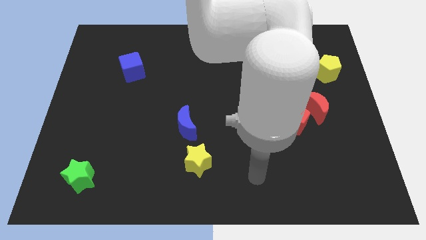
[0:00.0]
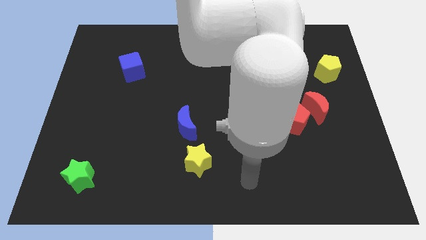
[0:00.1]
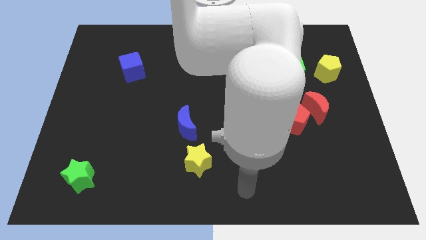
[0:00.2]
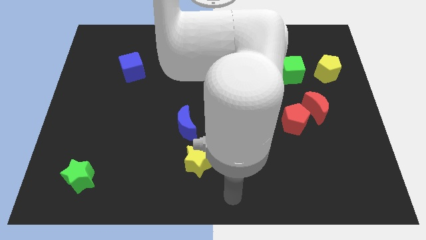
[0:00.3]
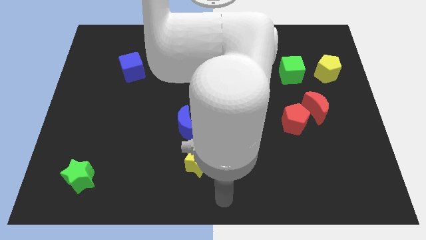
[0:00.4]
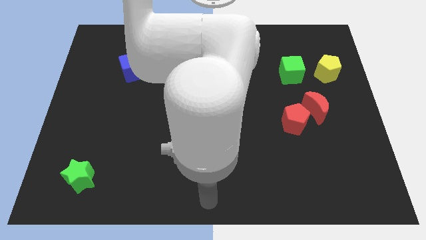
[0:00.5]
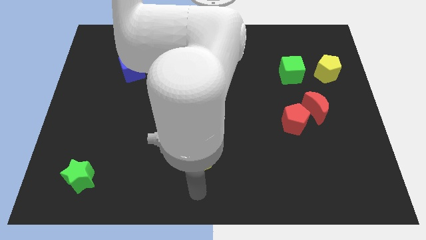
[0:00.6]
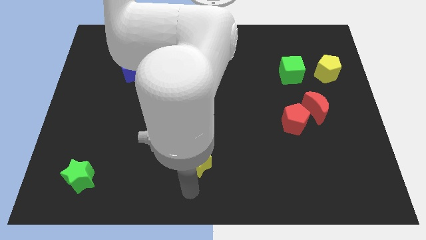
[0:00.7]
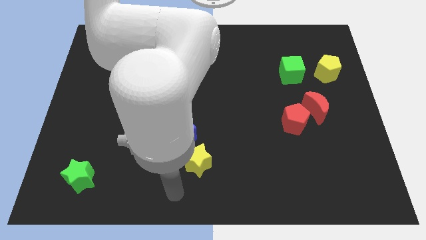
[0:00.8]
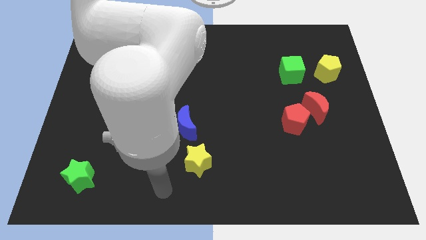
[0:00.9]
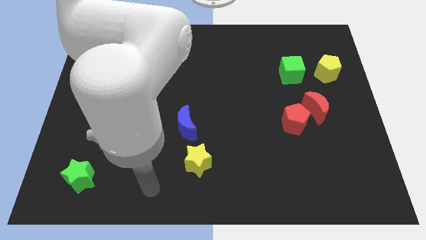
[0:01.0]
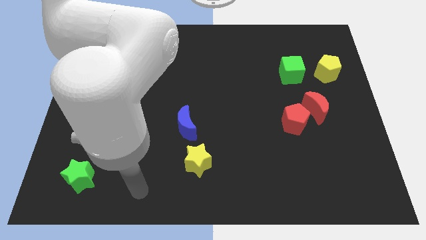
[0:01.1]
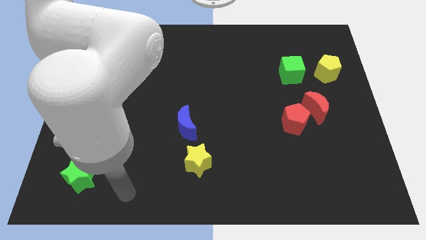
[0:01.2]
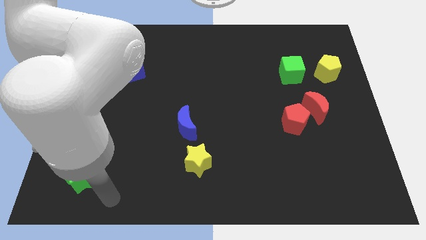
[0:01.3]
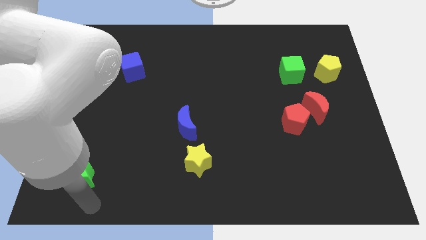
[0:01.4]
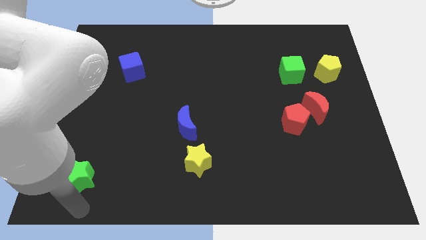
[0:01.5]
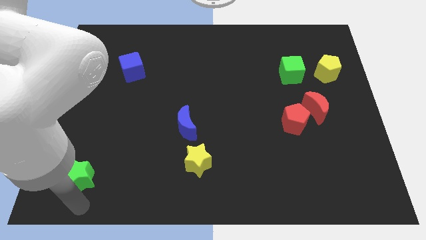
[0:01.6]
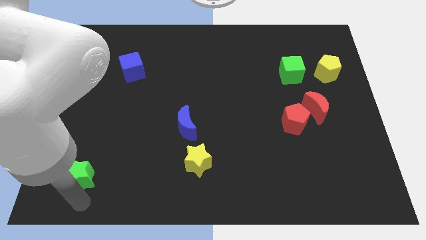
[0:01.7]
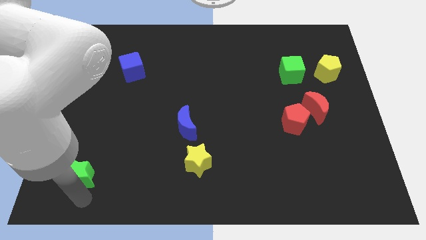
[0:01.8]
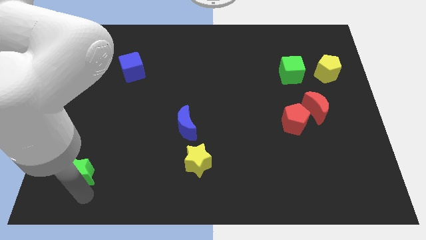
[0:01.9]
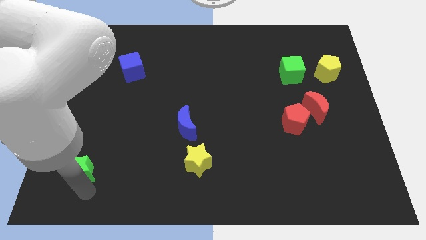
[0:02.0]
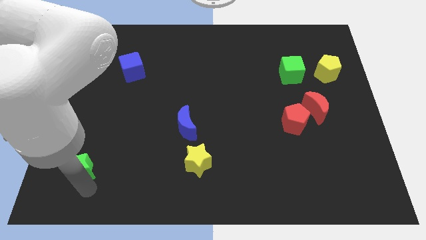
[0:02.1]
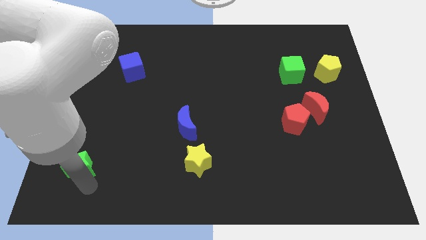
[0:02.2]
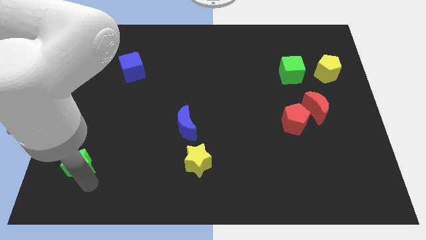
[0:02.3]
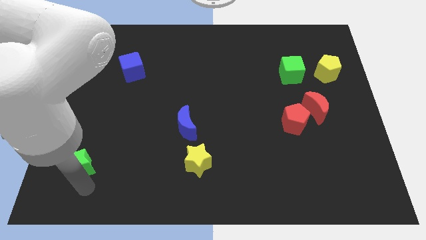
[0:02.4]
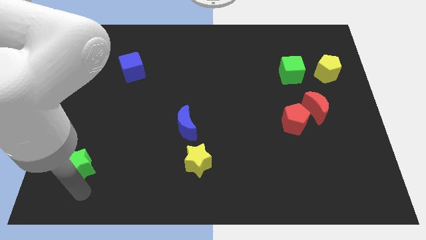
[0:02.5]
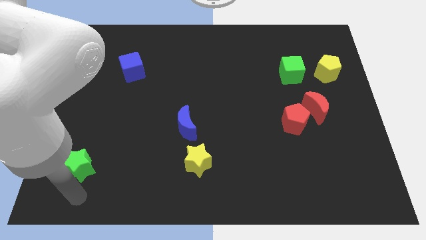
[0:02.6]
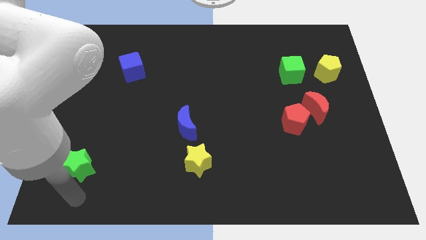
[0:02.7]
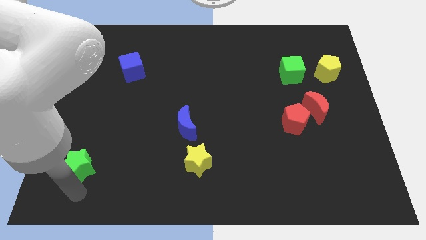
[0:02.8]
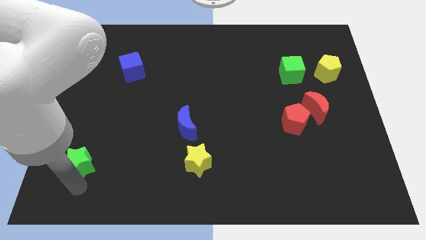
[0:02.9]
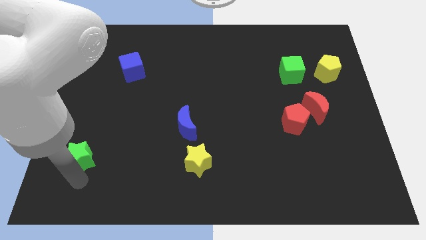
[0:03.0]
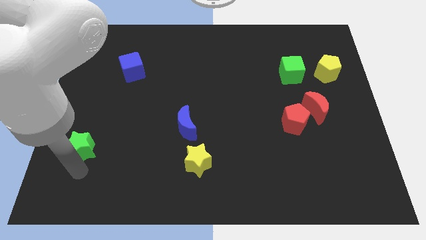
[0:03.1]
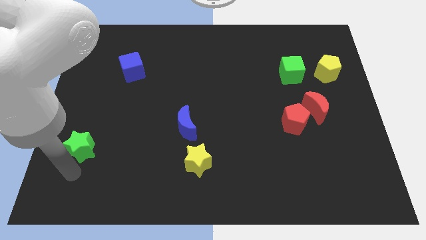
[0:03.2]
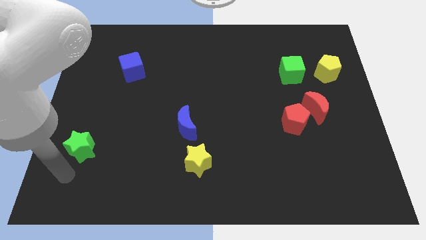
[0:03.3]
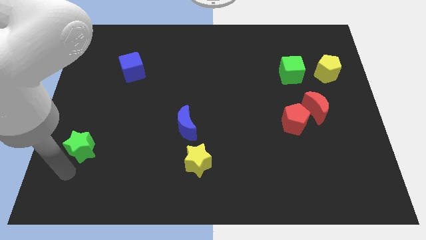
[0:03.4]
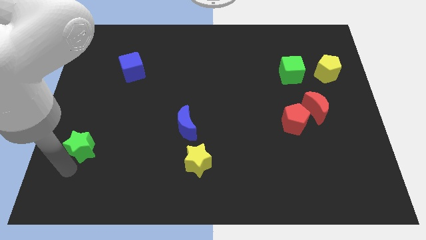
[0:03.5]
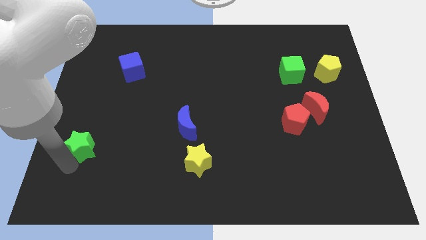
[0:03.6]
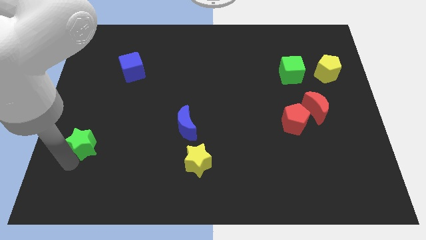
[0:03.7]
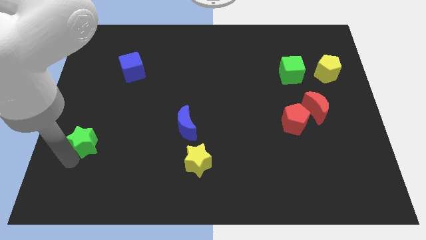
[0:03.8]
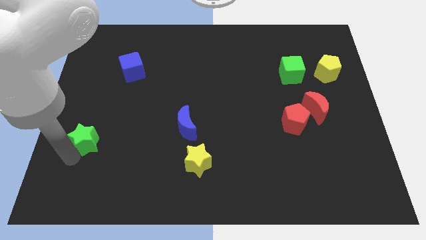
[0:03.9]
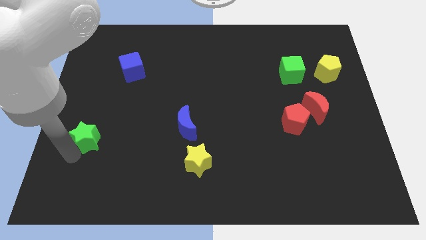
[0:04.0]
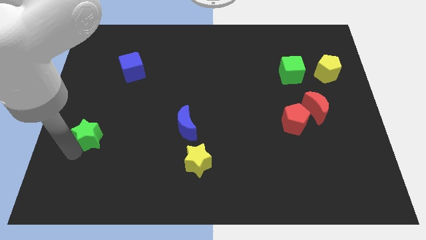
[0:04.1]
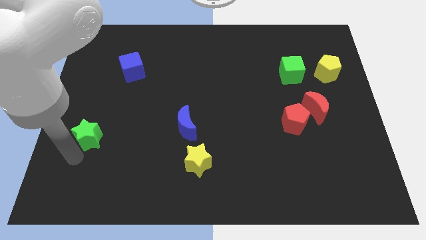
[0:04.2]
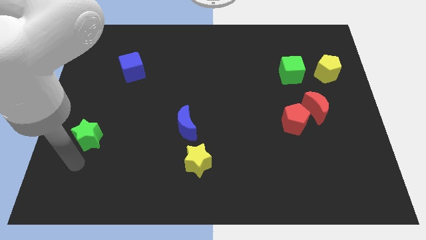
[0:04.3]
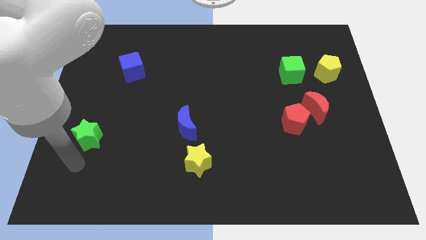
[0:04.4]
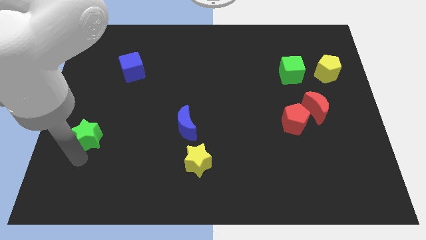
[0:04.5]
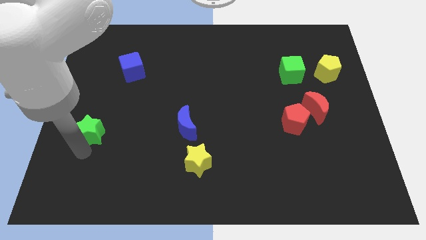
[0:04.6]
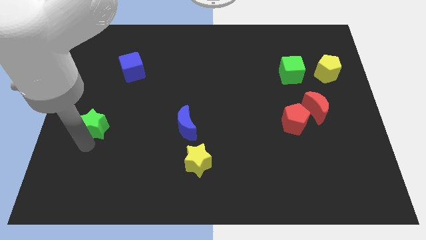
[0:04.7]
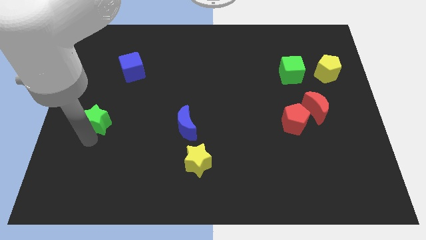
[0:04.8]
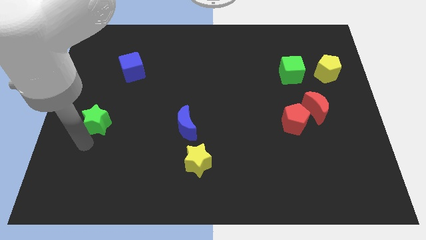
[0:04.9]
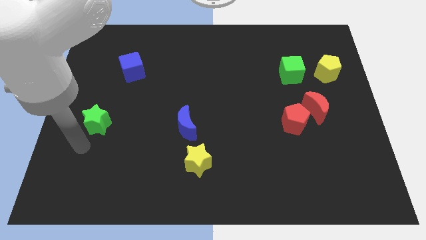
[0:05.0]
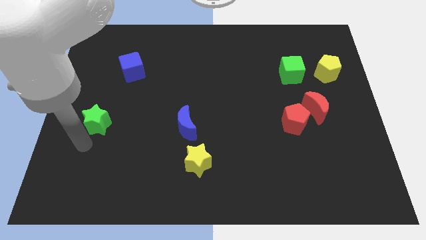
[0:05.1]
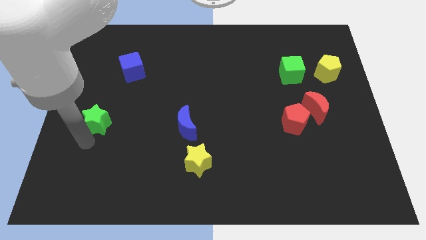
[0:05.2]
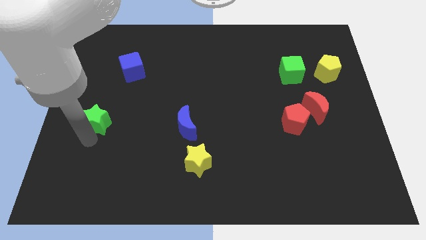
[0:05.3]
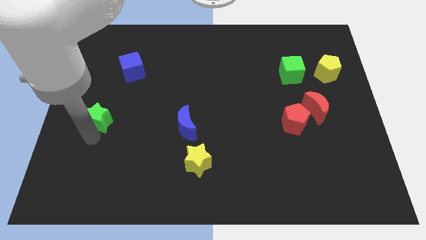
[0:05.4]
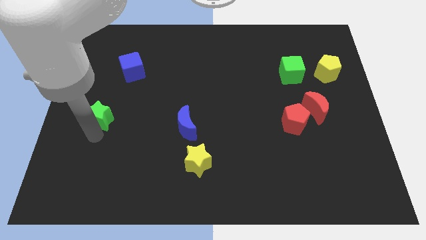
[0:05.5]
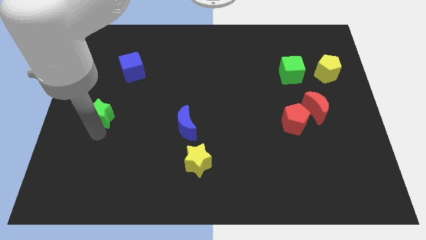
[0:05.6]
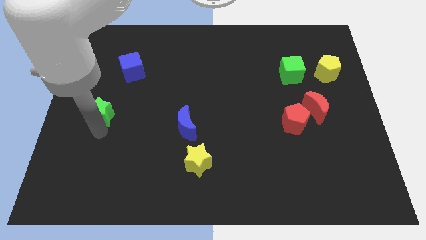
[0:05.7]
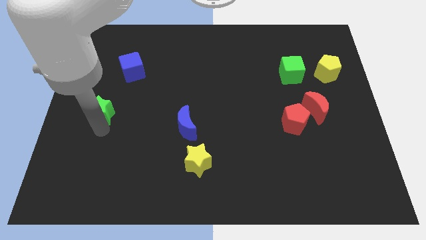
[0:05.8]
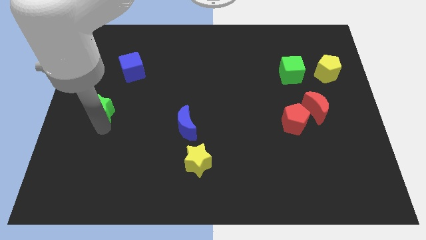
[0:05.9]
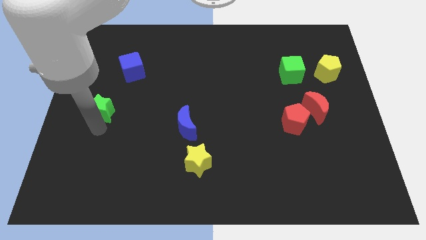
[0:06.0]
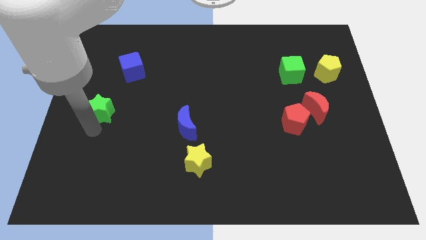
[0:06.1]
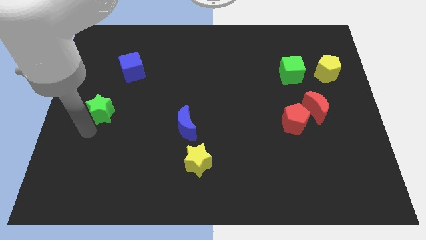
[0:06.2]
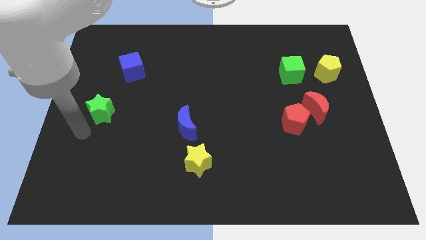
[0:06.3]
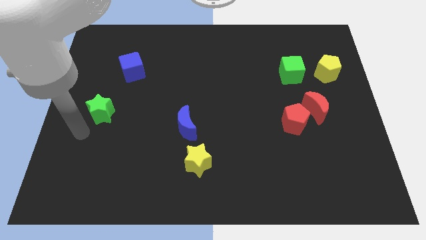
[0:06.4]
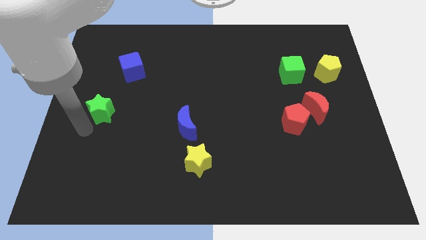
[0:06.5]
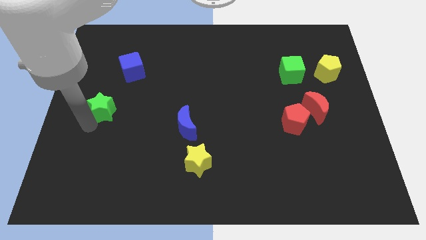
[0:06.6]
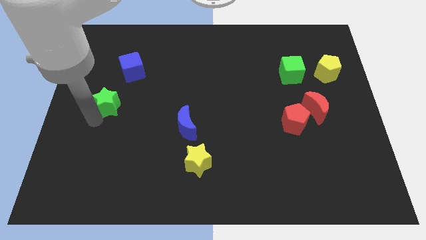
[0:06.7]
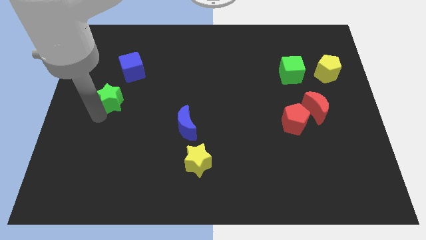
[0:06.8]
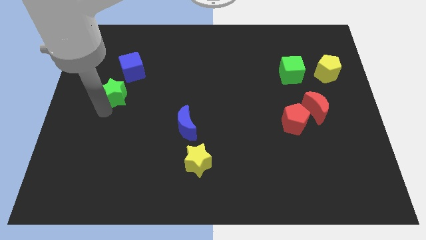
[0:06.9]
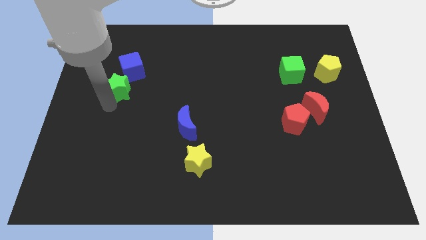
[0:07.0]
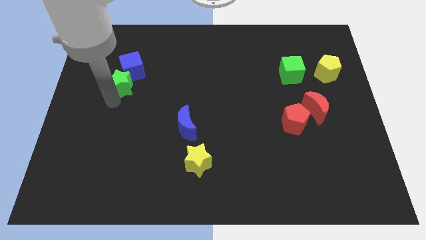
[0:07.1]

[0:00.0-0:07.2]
slide the green star to the blue cube

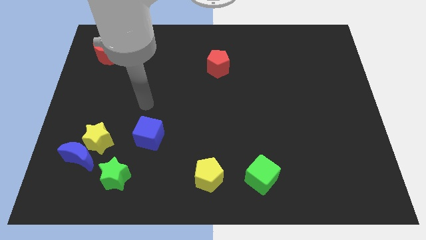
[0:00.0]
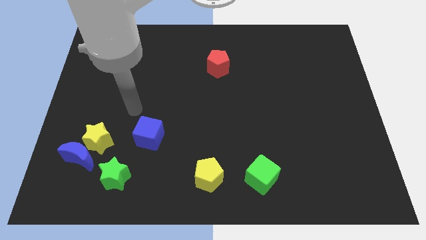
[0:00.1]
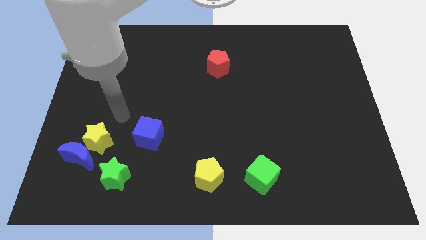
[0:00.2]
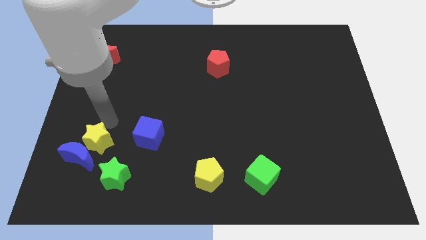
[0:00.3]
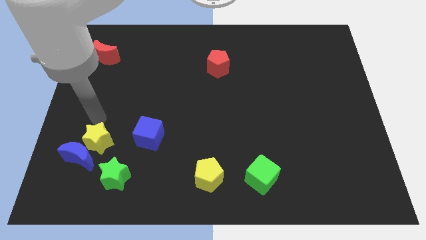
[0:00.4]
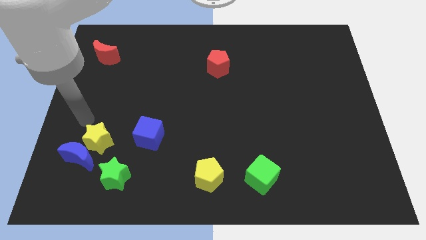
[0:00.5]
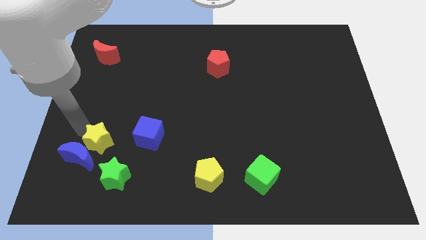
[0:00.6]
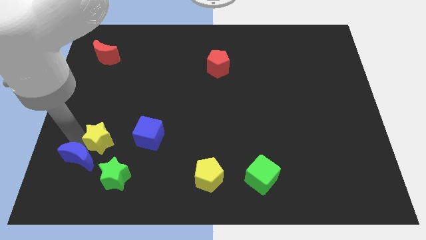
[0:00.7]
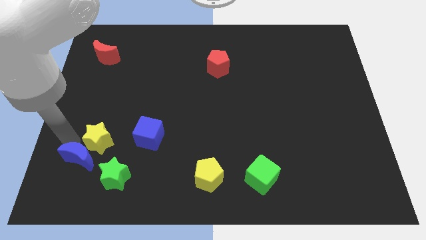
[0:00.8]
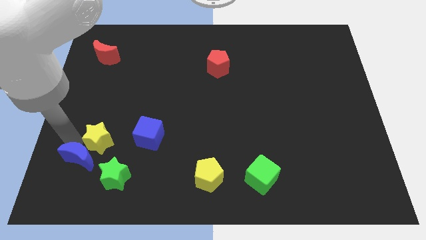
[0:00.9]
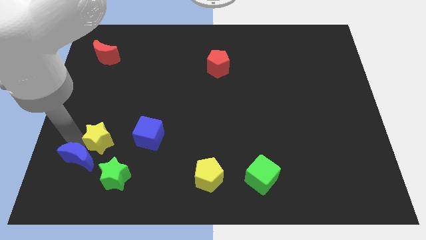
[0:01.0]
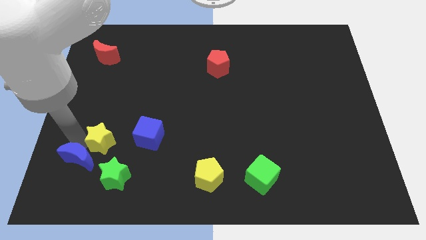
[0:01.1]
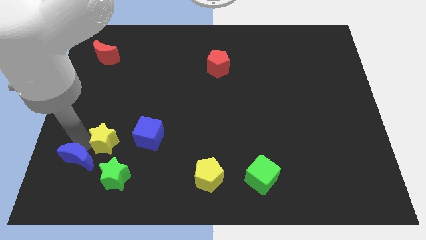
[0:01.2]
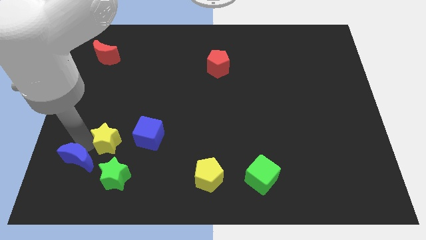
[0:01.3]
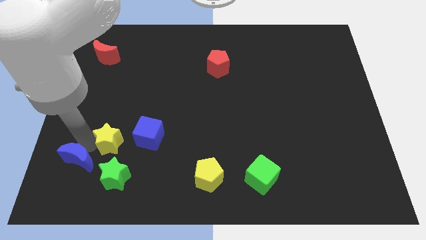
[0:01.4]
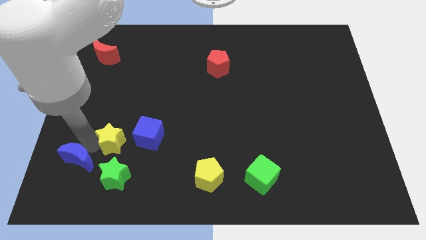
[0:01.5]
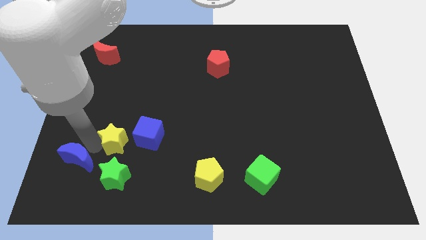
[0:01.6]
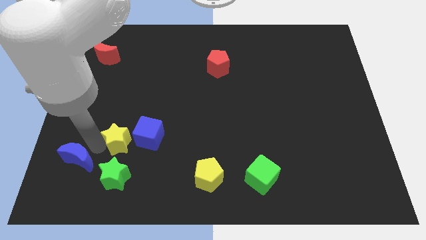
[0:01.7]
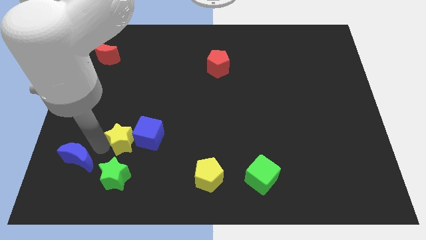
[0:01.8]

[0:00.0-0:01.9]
push the yellow star next to the blue cube
